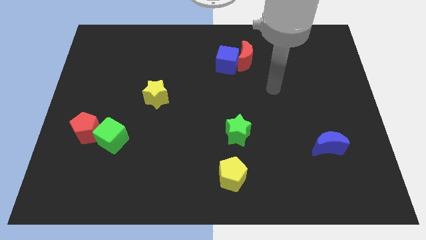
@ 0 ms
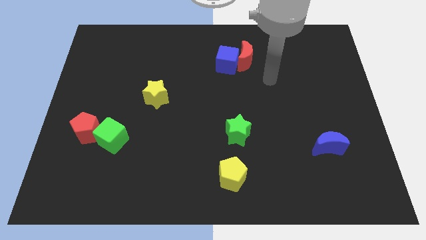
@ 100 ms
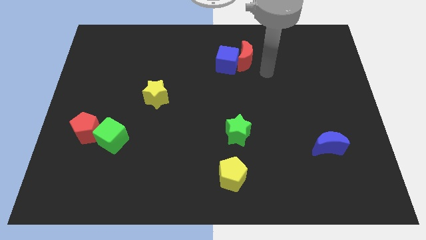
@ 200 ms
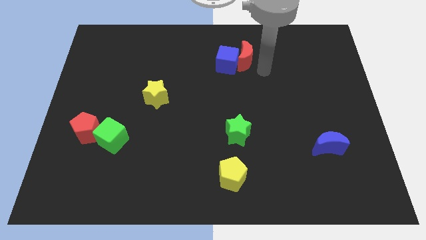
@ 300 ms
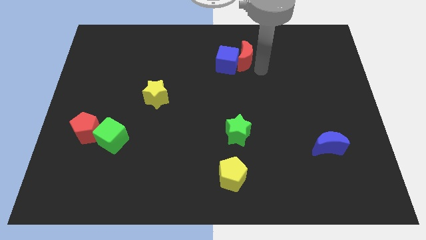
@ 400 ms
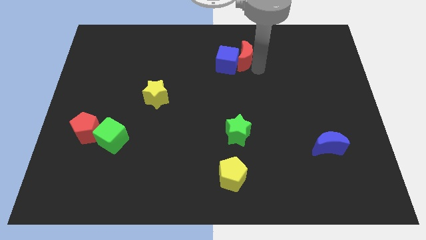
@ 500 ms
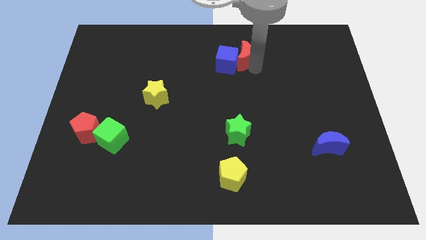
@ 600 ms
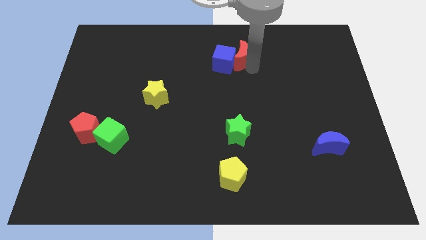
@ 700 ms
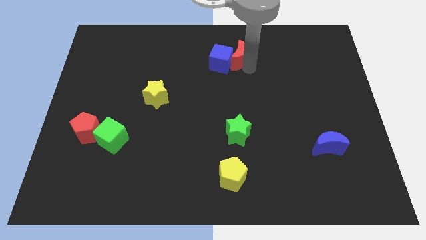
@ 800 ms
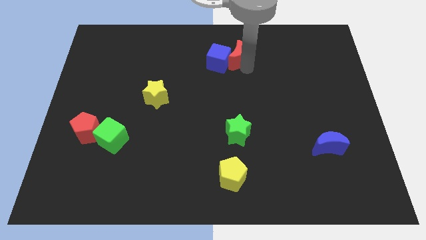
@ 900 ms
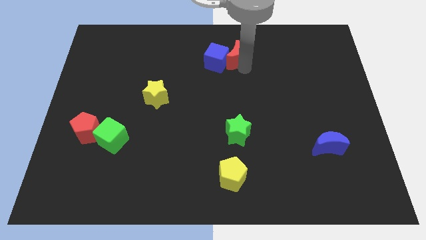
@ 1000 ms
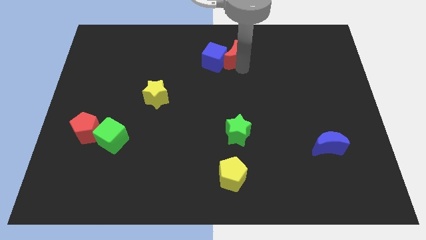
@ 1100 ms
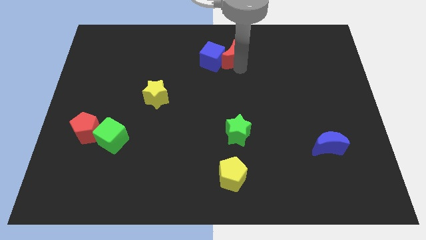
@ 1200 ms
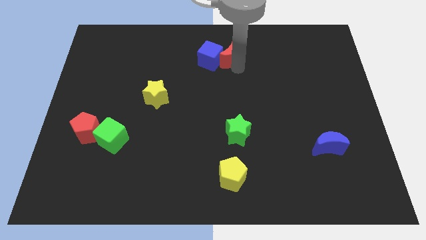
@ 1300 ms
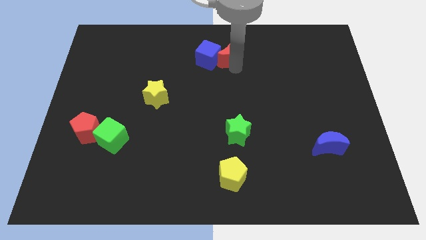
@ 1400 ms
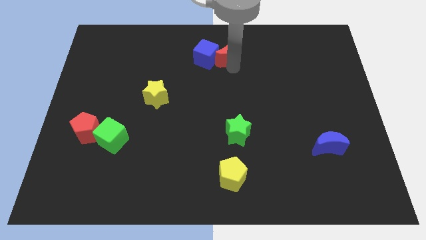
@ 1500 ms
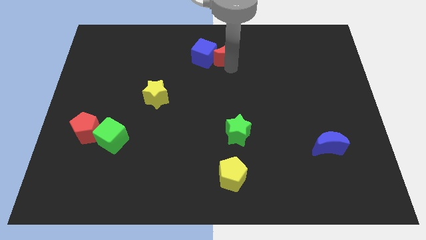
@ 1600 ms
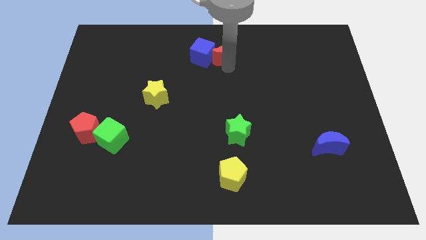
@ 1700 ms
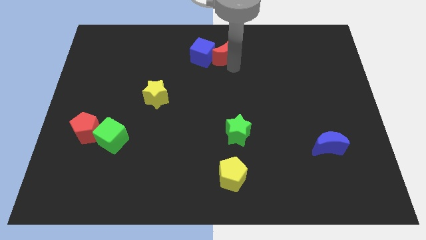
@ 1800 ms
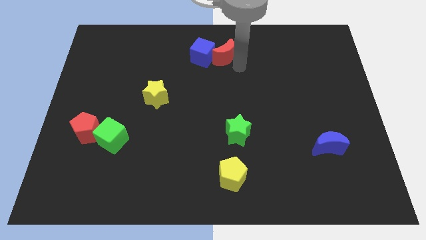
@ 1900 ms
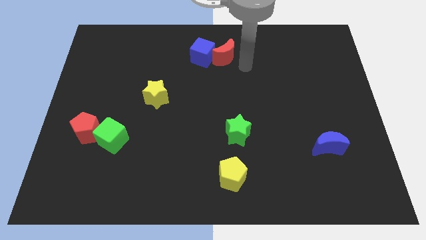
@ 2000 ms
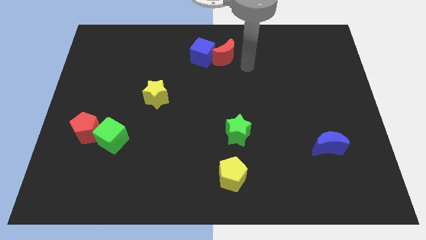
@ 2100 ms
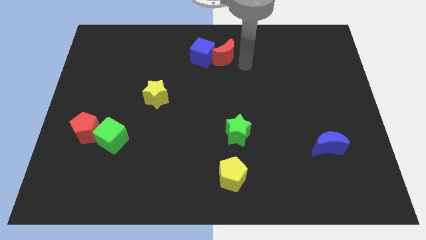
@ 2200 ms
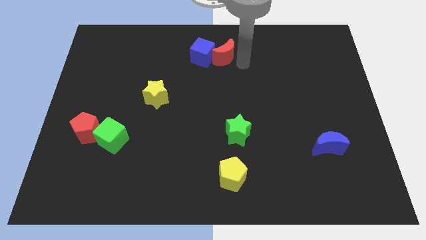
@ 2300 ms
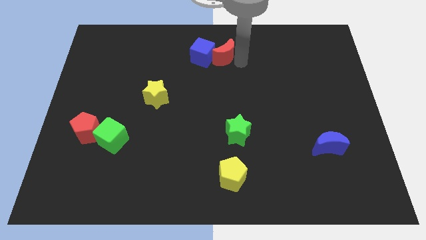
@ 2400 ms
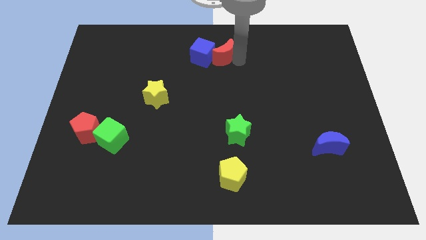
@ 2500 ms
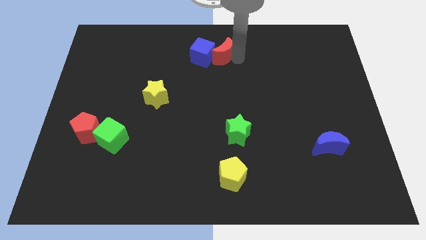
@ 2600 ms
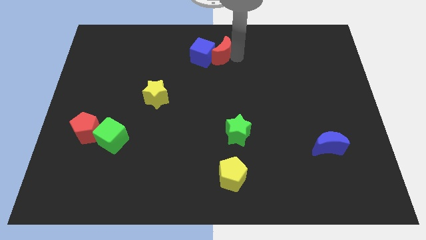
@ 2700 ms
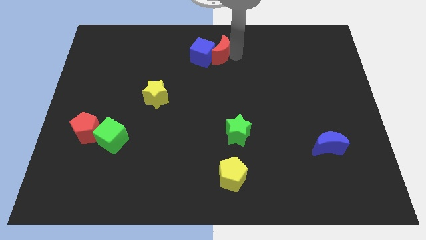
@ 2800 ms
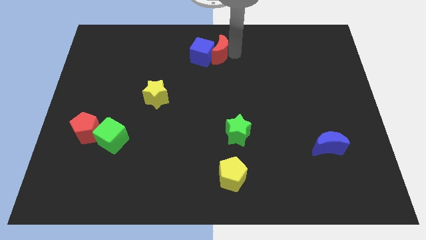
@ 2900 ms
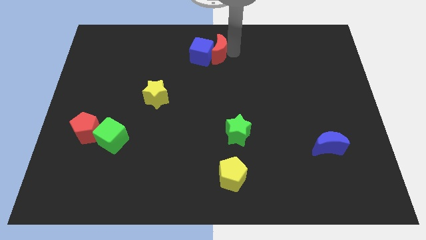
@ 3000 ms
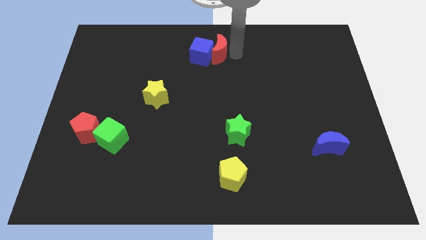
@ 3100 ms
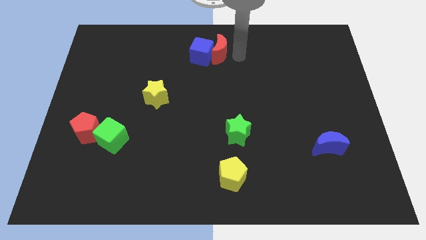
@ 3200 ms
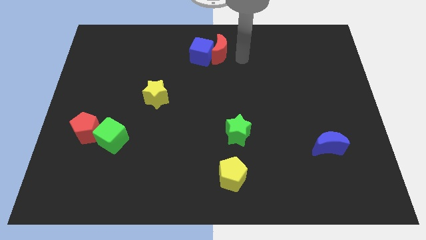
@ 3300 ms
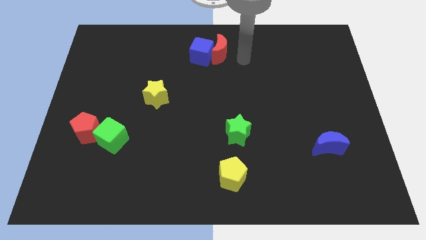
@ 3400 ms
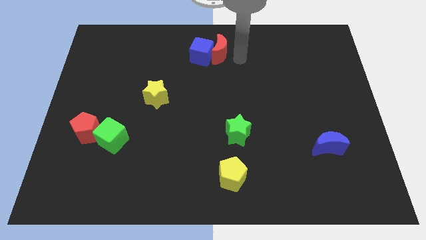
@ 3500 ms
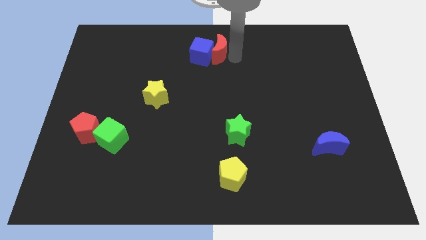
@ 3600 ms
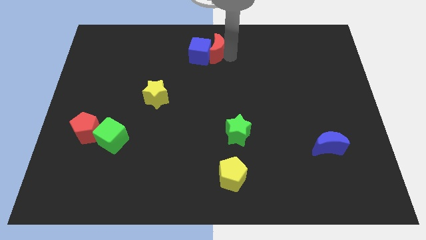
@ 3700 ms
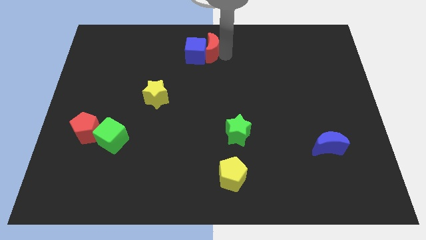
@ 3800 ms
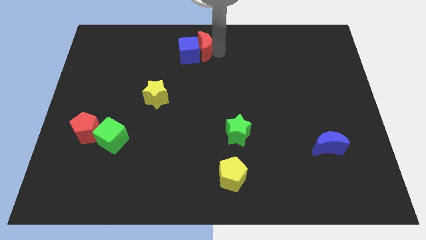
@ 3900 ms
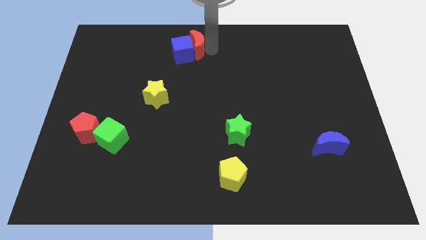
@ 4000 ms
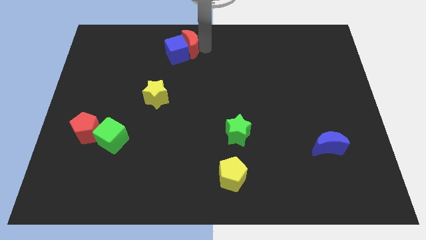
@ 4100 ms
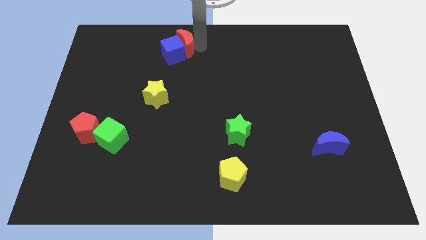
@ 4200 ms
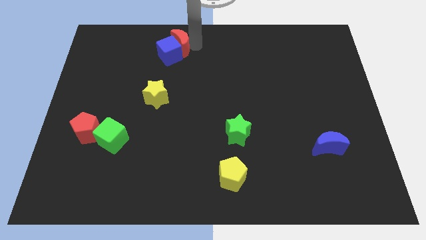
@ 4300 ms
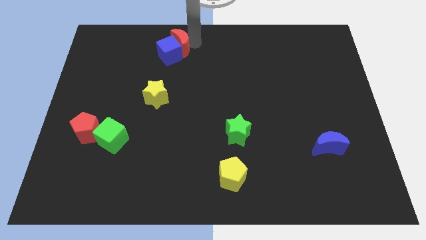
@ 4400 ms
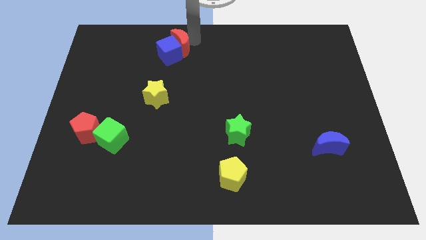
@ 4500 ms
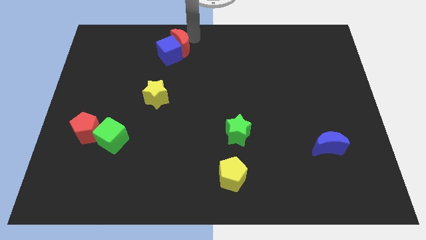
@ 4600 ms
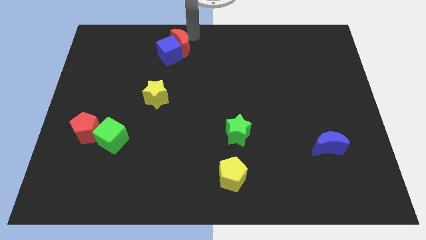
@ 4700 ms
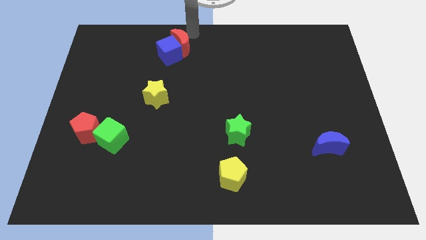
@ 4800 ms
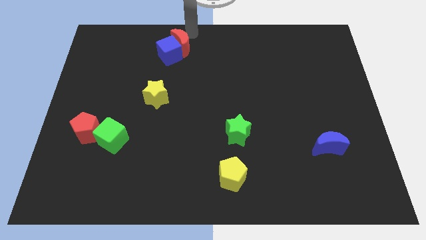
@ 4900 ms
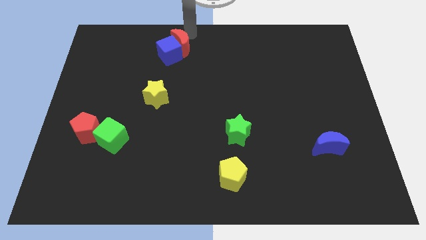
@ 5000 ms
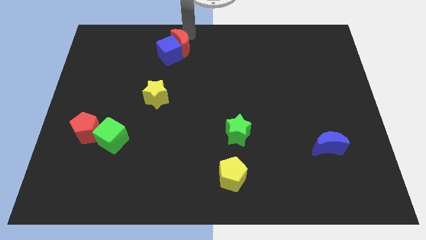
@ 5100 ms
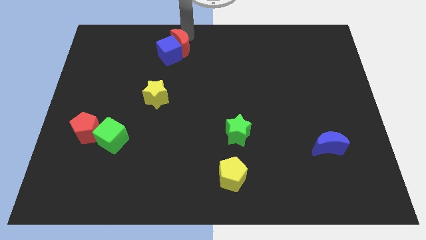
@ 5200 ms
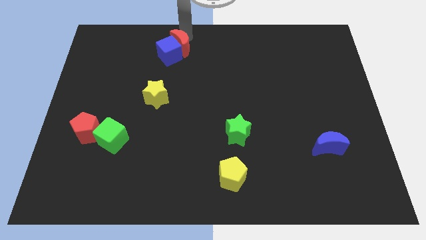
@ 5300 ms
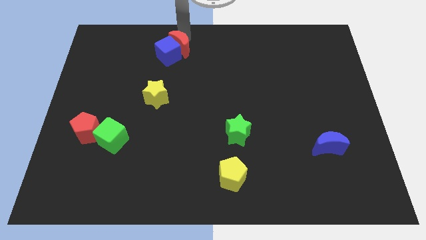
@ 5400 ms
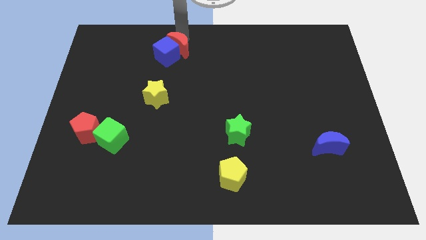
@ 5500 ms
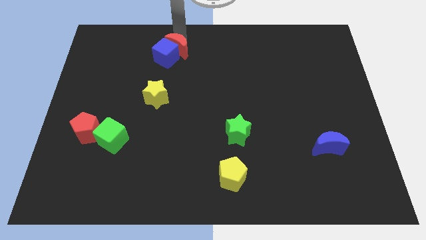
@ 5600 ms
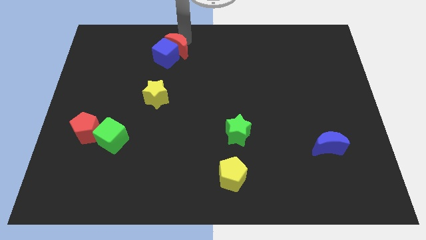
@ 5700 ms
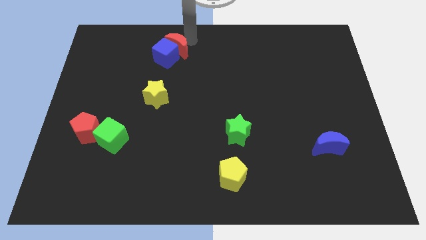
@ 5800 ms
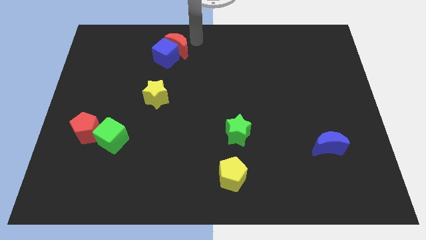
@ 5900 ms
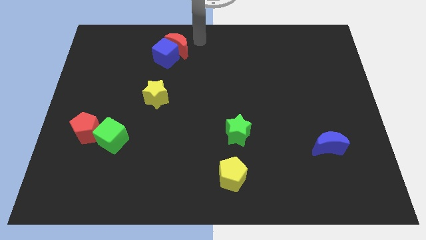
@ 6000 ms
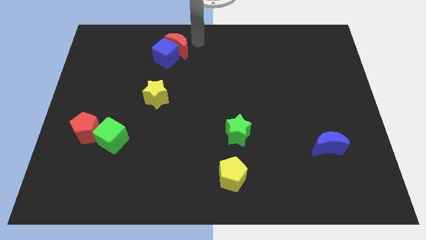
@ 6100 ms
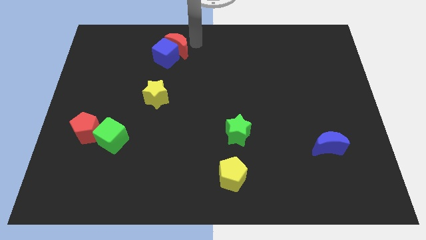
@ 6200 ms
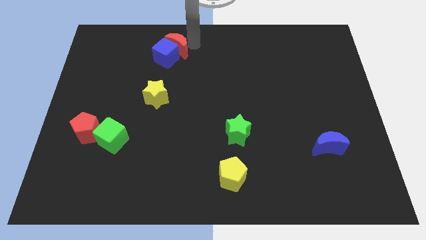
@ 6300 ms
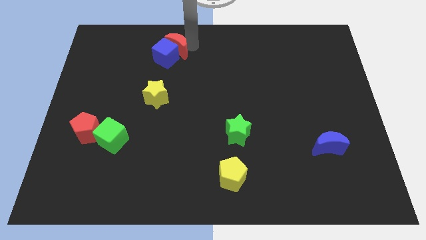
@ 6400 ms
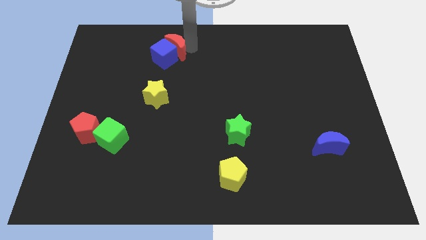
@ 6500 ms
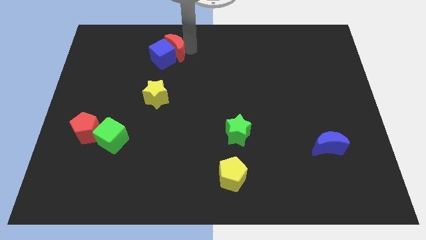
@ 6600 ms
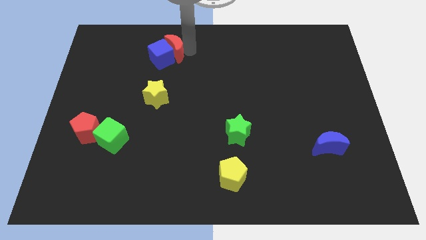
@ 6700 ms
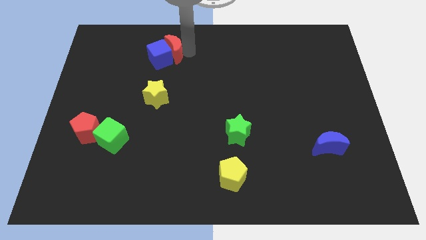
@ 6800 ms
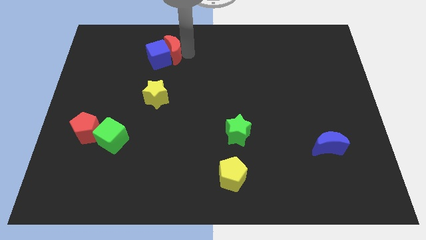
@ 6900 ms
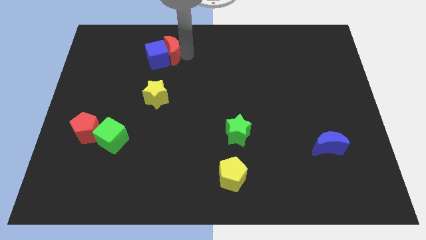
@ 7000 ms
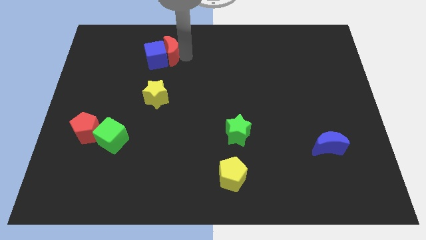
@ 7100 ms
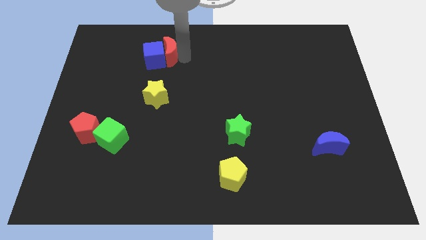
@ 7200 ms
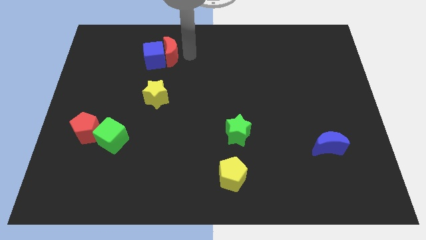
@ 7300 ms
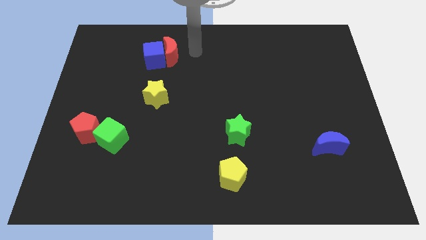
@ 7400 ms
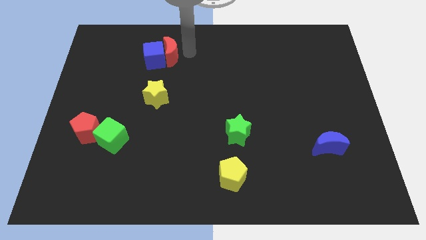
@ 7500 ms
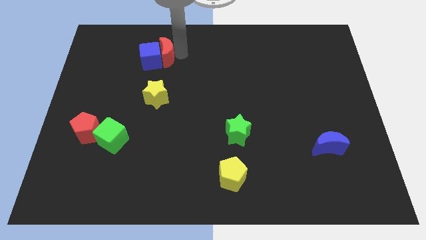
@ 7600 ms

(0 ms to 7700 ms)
move the red moon left

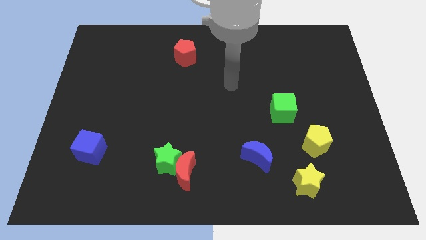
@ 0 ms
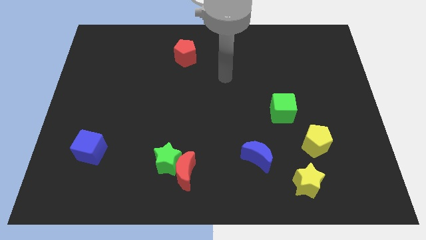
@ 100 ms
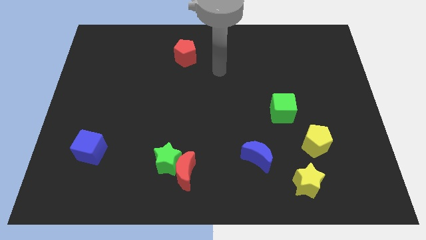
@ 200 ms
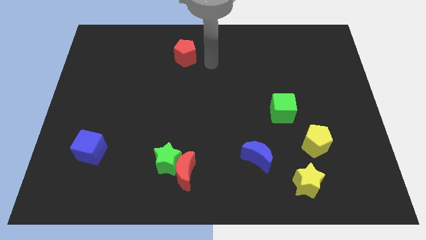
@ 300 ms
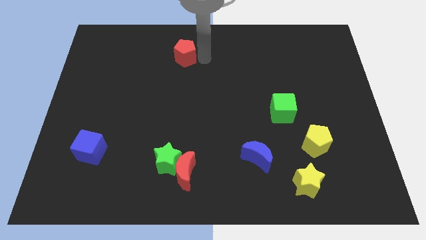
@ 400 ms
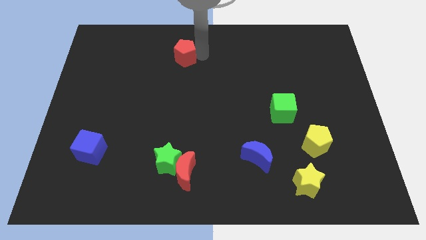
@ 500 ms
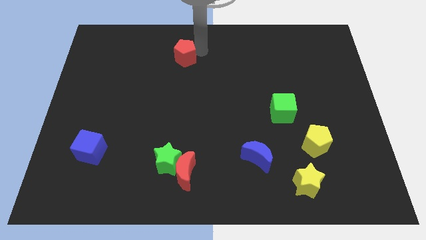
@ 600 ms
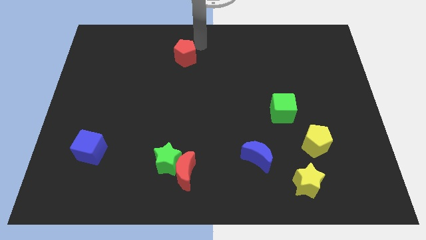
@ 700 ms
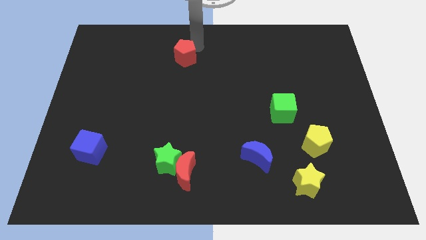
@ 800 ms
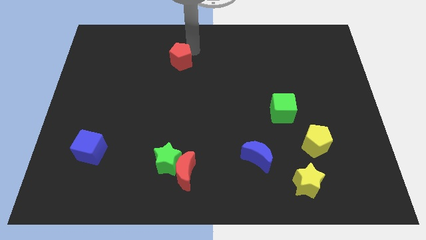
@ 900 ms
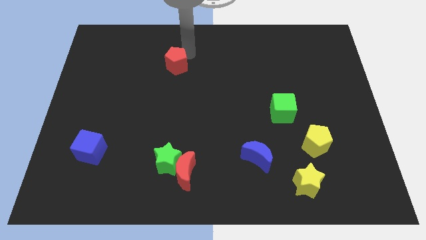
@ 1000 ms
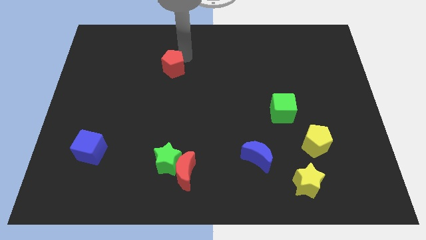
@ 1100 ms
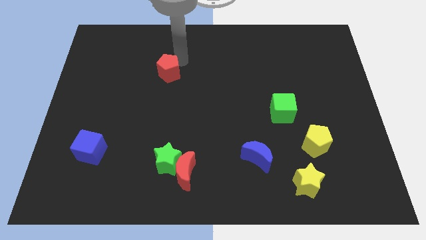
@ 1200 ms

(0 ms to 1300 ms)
move the red pentagon a little diagonally down and to the left
